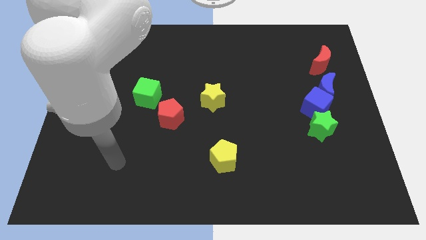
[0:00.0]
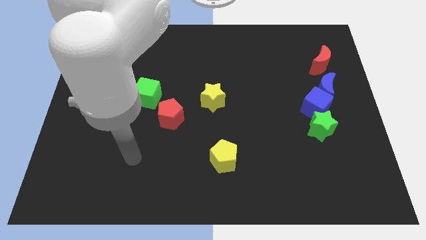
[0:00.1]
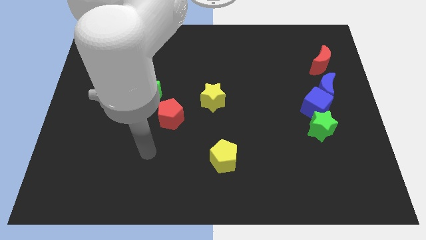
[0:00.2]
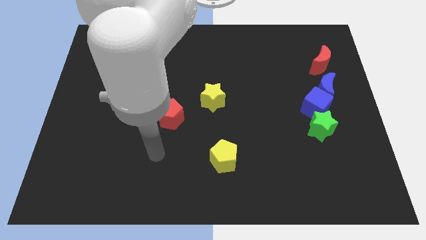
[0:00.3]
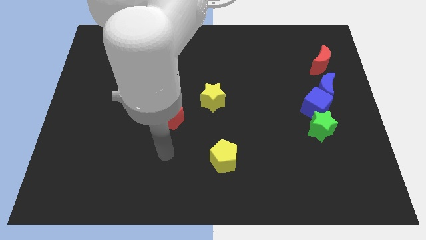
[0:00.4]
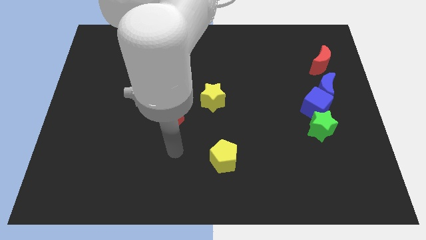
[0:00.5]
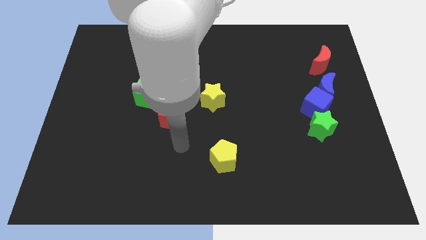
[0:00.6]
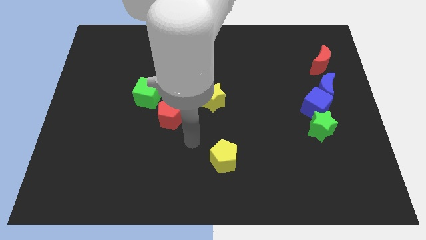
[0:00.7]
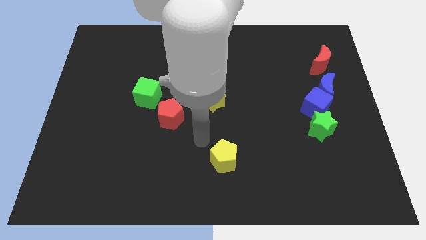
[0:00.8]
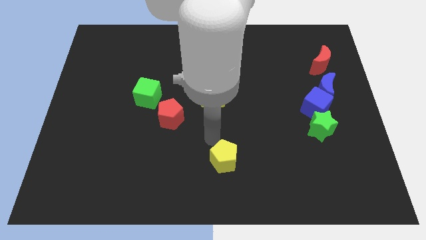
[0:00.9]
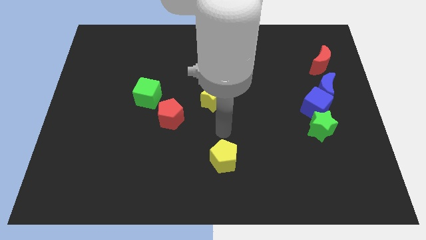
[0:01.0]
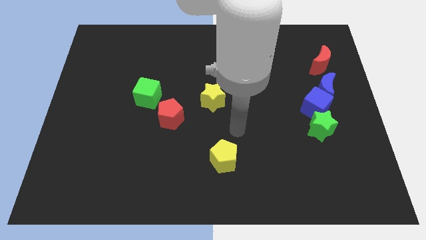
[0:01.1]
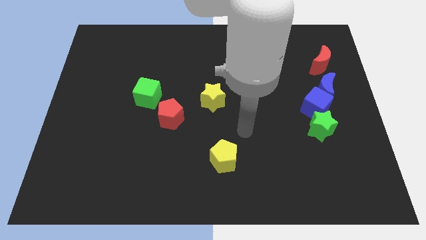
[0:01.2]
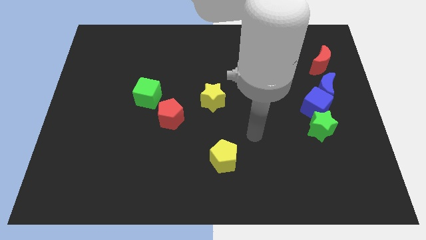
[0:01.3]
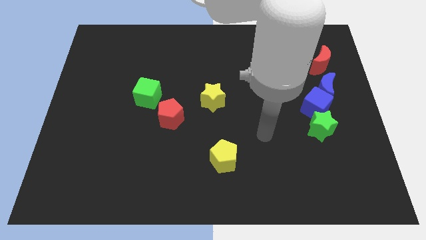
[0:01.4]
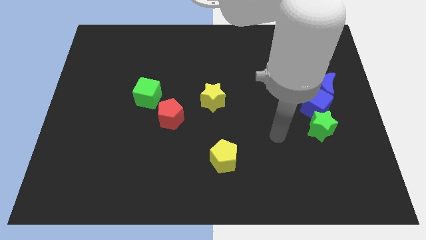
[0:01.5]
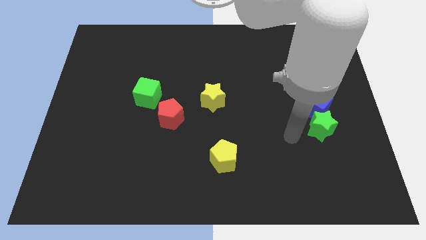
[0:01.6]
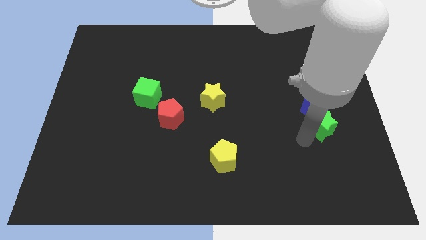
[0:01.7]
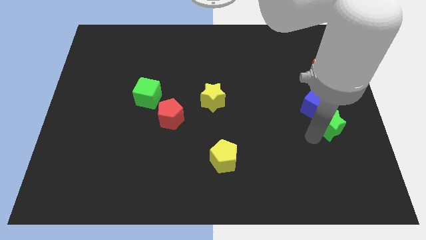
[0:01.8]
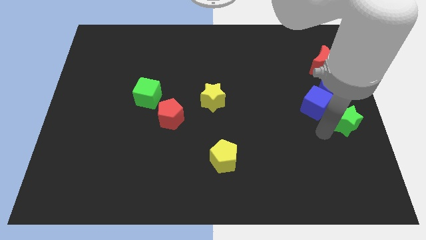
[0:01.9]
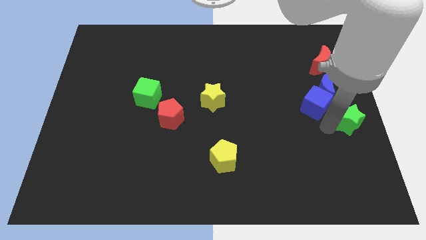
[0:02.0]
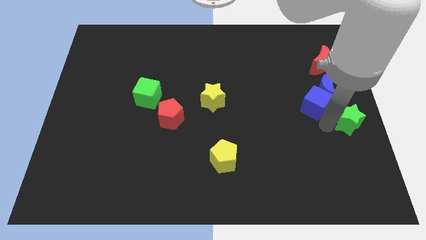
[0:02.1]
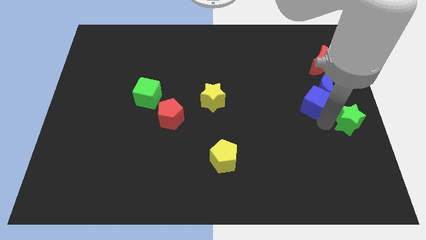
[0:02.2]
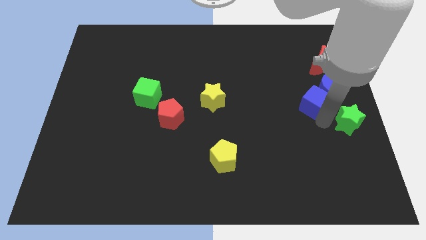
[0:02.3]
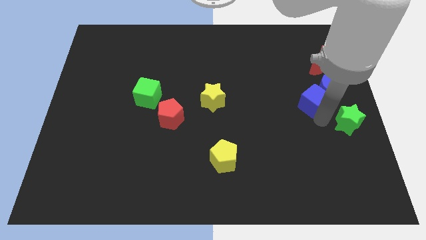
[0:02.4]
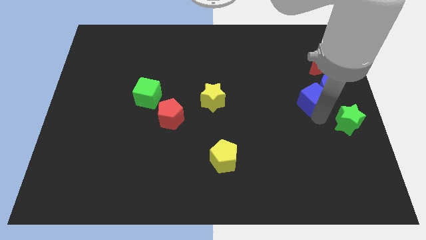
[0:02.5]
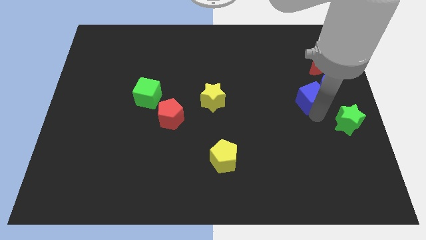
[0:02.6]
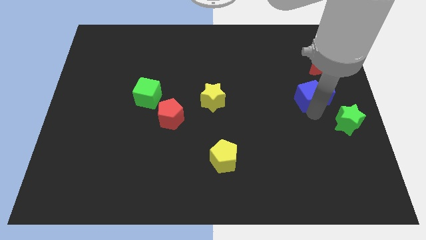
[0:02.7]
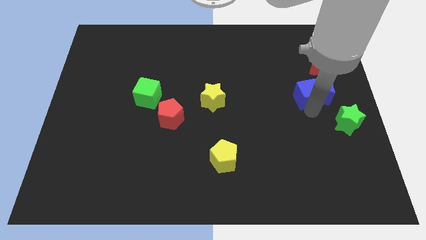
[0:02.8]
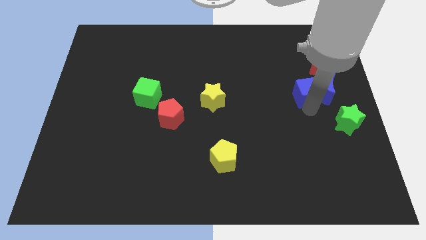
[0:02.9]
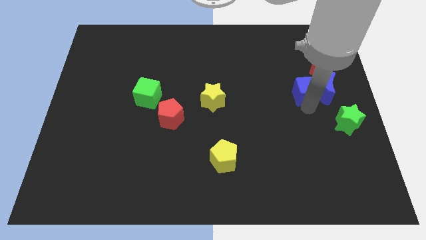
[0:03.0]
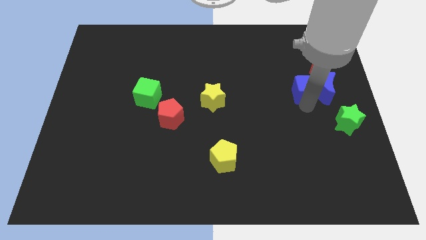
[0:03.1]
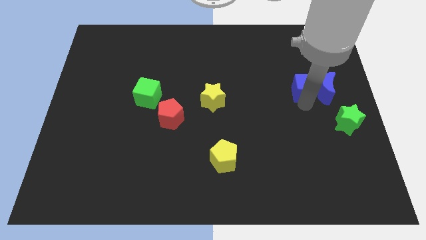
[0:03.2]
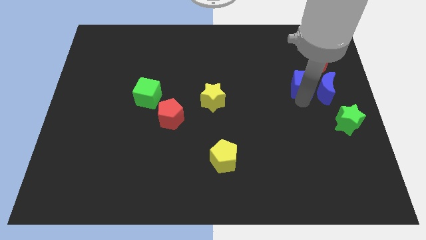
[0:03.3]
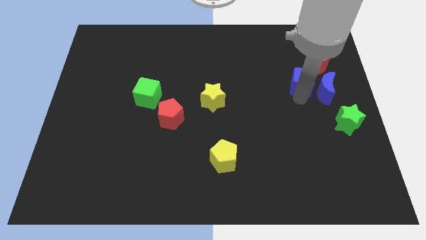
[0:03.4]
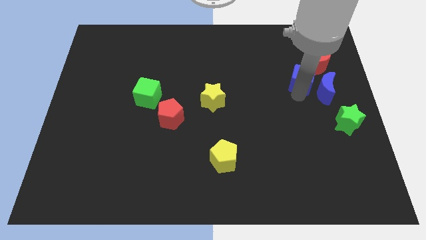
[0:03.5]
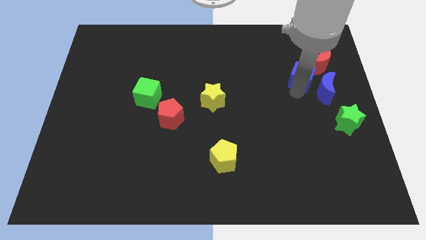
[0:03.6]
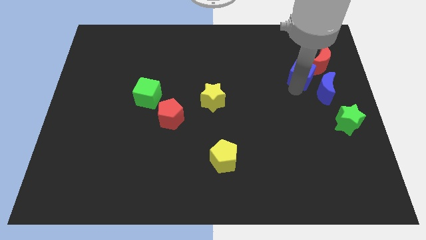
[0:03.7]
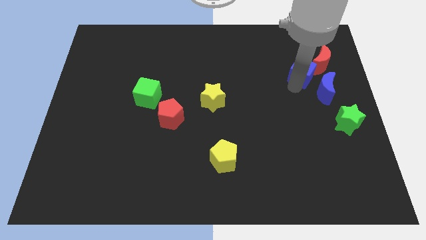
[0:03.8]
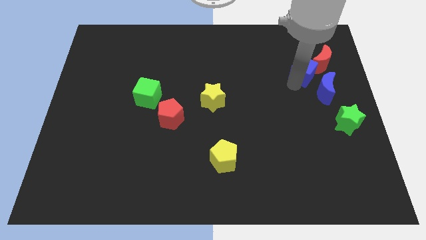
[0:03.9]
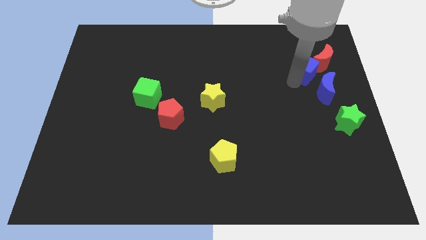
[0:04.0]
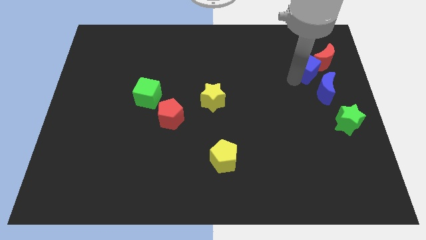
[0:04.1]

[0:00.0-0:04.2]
push the blue cube next to the red moon

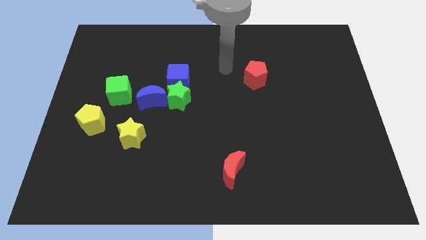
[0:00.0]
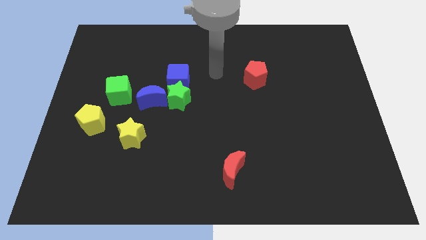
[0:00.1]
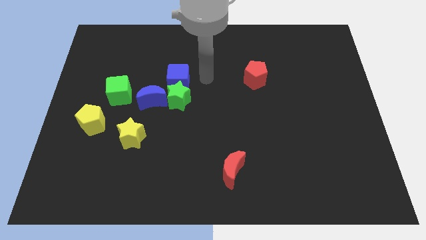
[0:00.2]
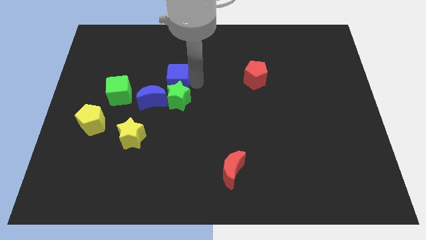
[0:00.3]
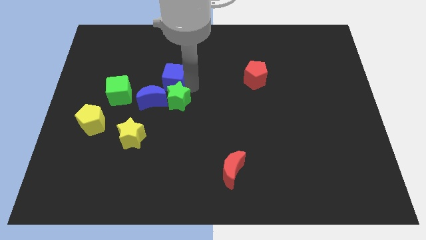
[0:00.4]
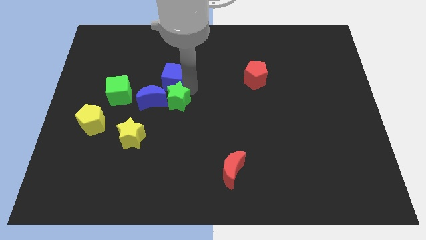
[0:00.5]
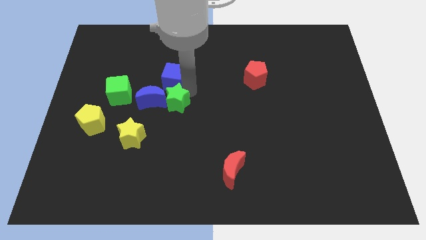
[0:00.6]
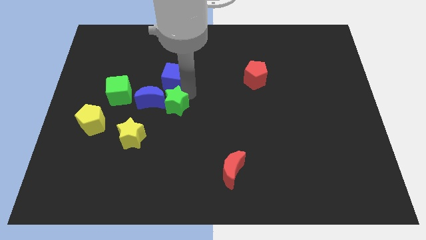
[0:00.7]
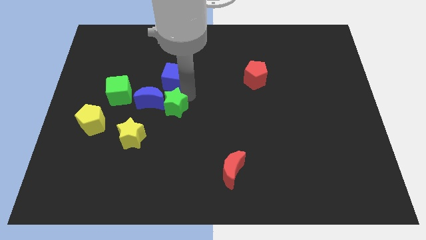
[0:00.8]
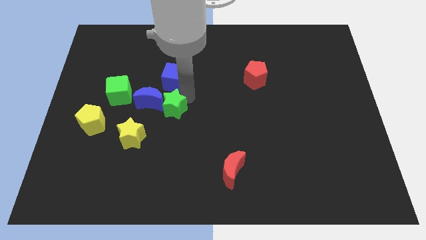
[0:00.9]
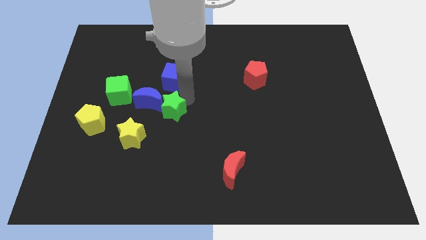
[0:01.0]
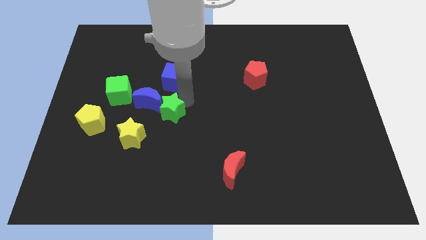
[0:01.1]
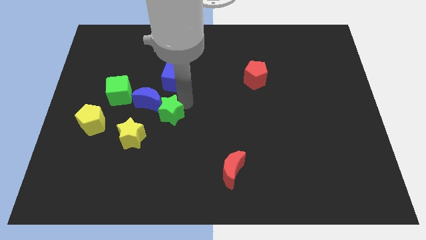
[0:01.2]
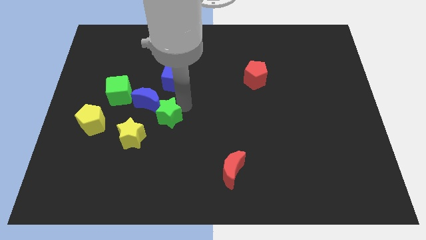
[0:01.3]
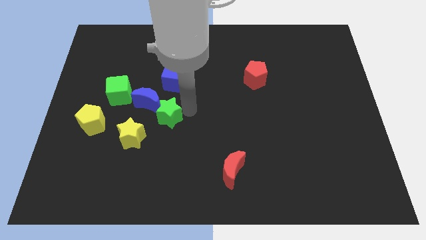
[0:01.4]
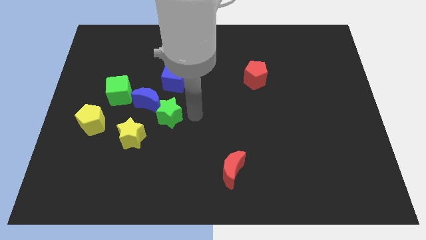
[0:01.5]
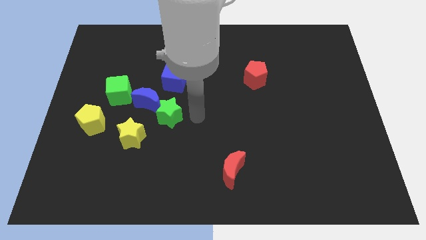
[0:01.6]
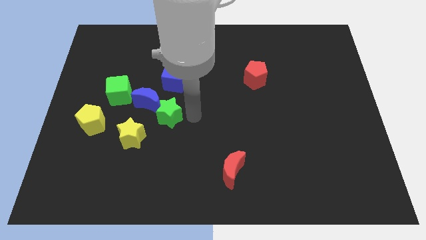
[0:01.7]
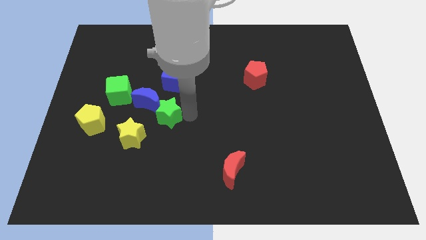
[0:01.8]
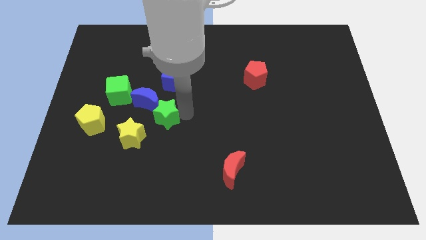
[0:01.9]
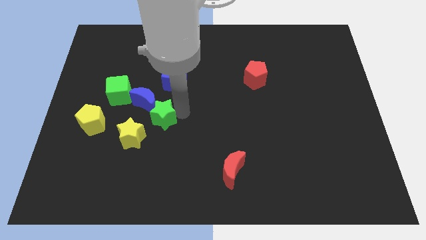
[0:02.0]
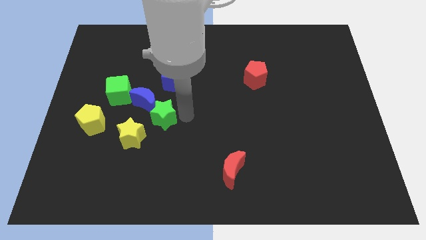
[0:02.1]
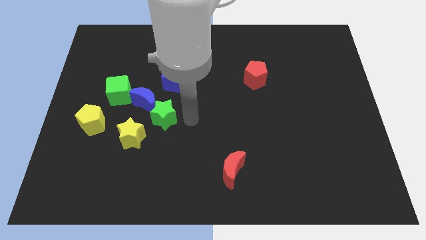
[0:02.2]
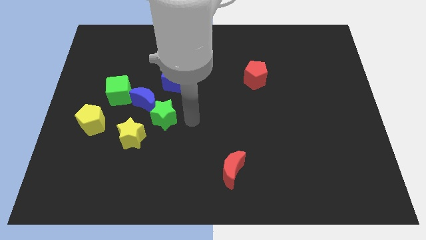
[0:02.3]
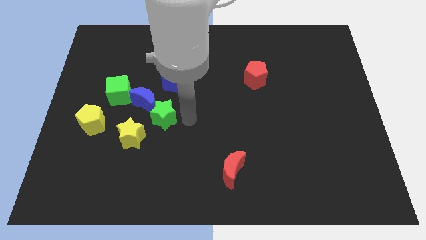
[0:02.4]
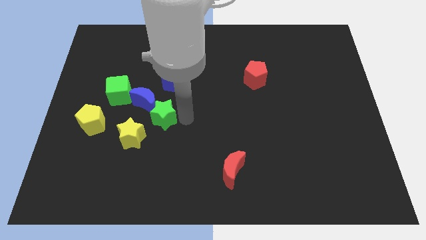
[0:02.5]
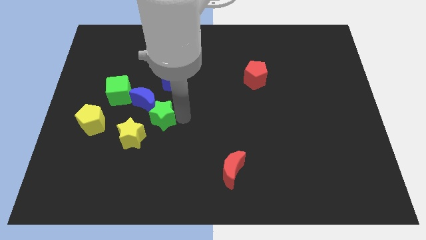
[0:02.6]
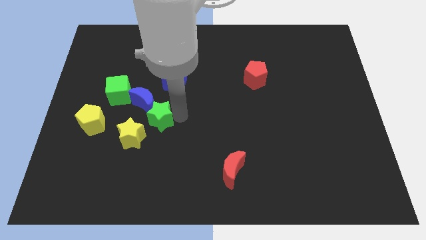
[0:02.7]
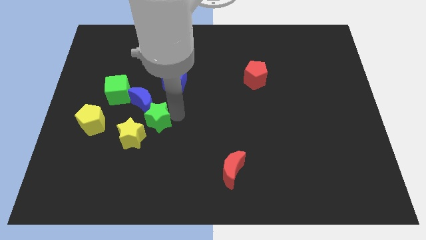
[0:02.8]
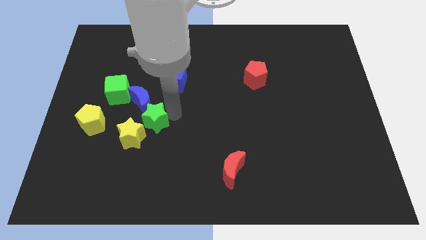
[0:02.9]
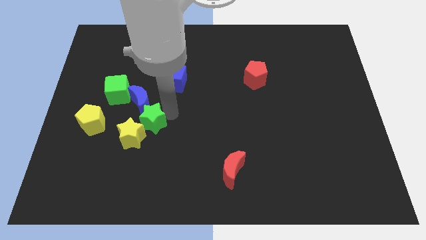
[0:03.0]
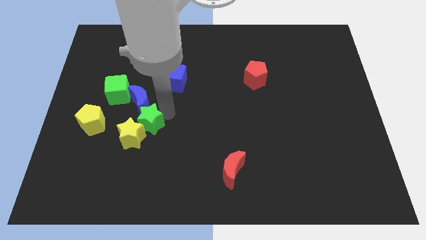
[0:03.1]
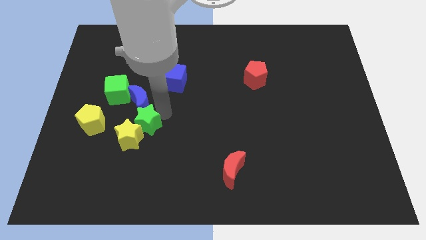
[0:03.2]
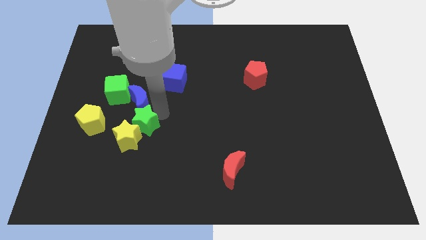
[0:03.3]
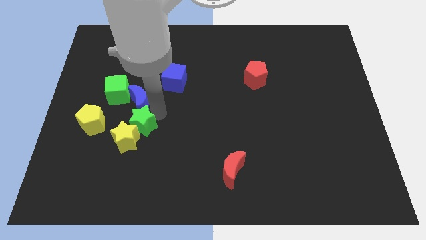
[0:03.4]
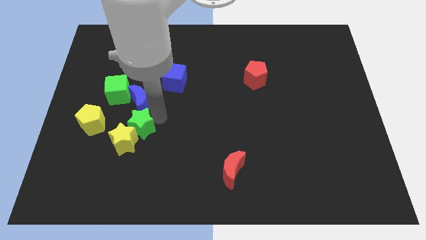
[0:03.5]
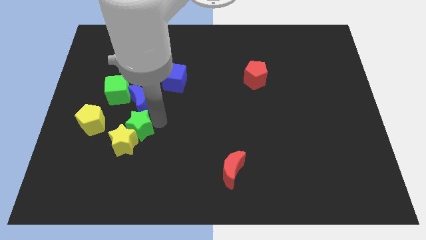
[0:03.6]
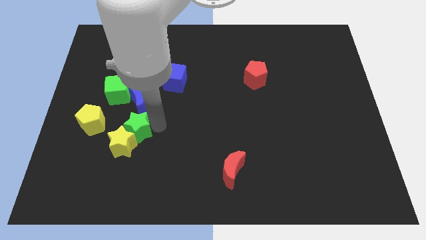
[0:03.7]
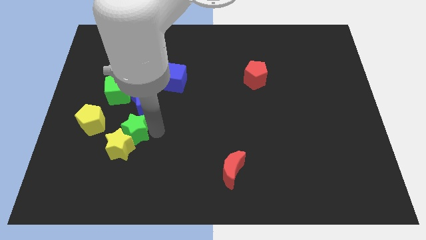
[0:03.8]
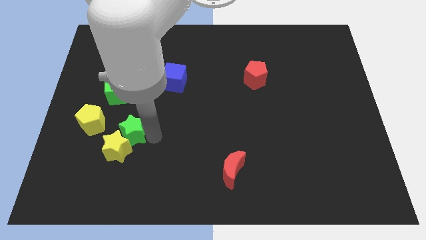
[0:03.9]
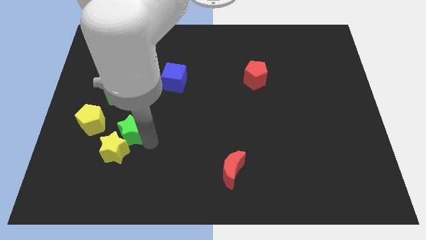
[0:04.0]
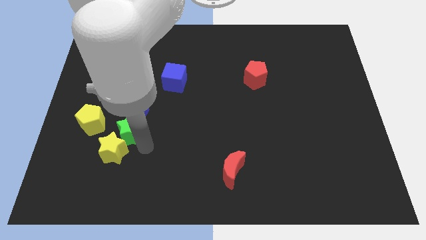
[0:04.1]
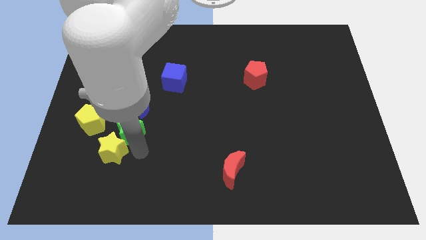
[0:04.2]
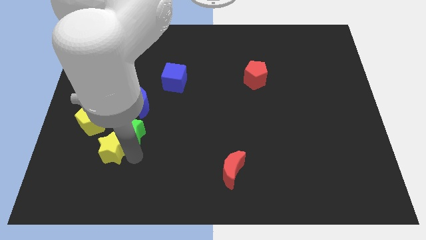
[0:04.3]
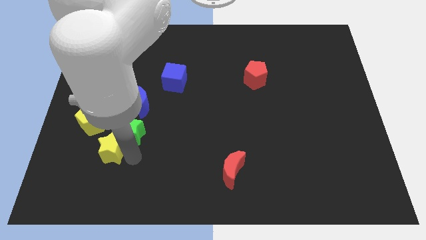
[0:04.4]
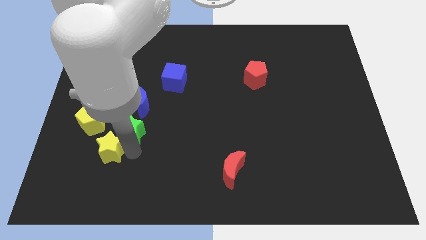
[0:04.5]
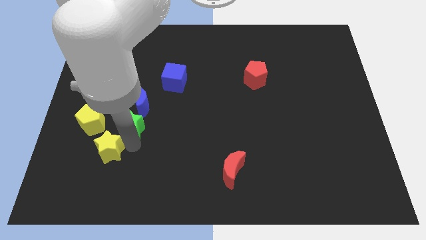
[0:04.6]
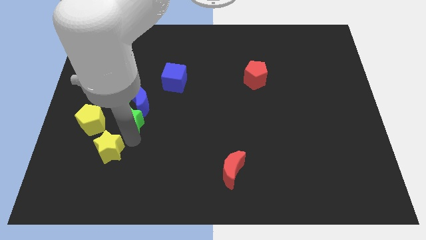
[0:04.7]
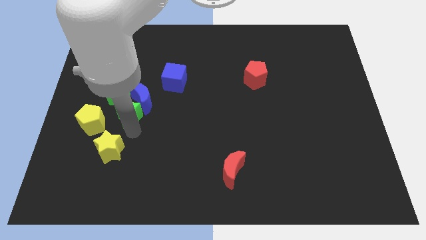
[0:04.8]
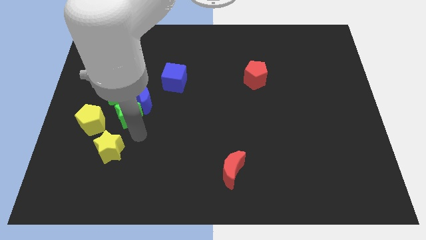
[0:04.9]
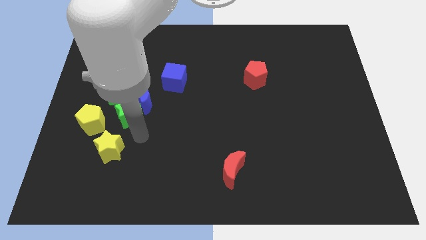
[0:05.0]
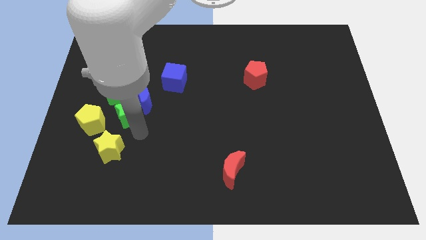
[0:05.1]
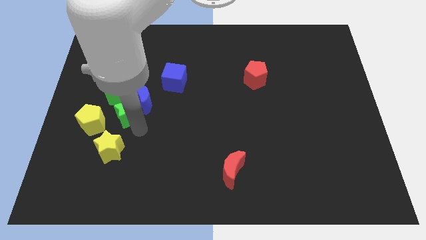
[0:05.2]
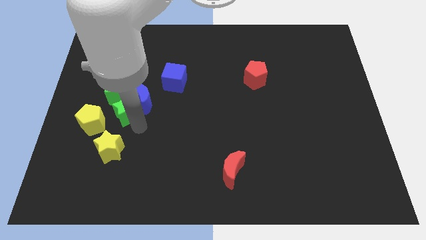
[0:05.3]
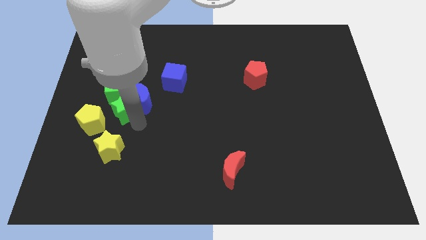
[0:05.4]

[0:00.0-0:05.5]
put the green star next to the green cube
